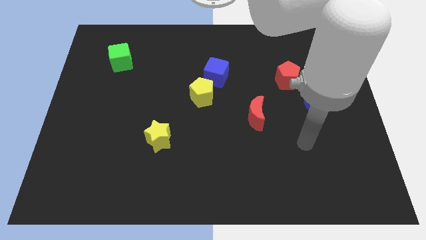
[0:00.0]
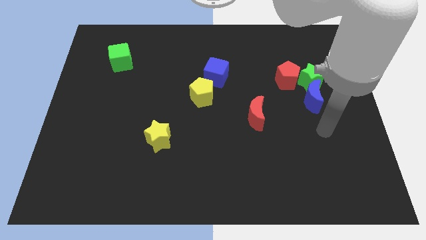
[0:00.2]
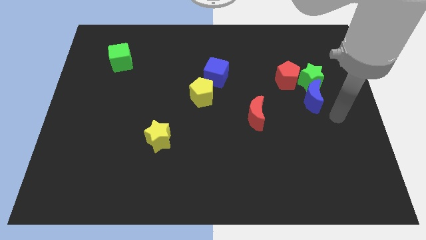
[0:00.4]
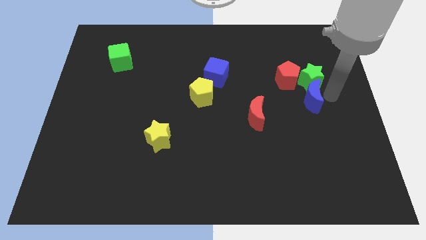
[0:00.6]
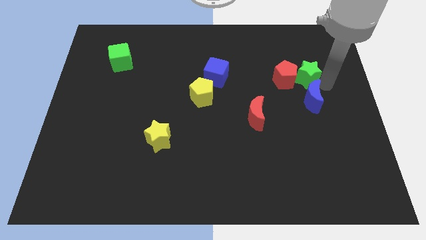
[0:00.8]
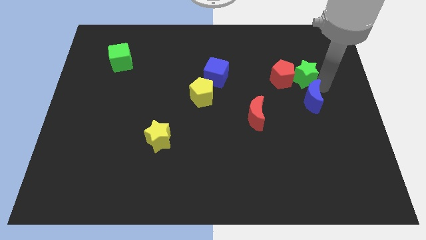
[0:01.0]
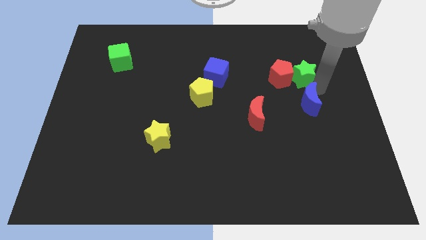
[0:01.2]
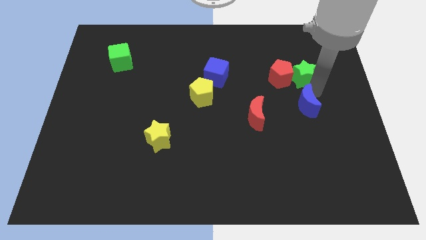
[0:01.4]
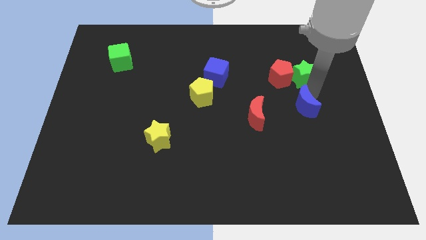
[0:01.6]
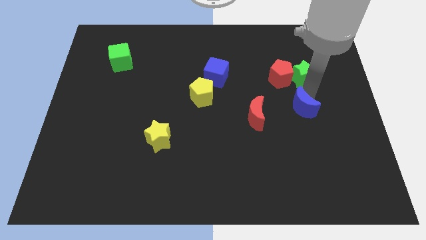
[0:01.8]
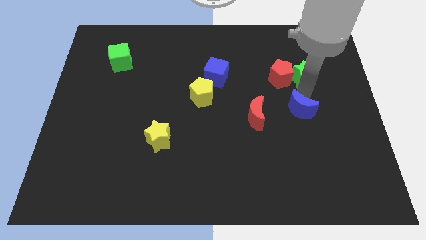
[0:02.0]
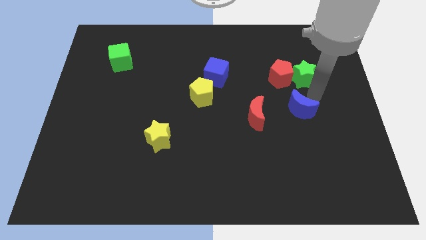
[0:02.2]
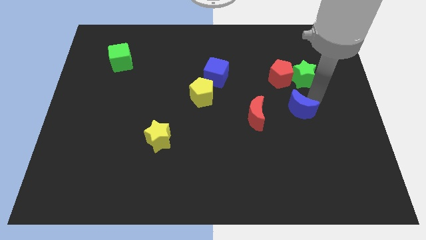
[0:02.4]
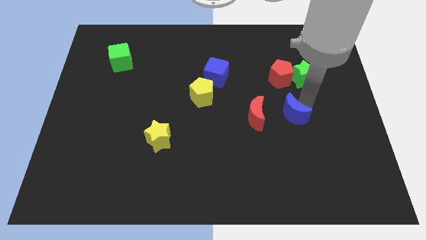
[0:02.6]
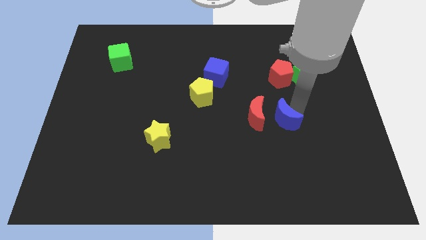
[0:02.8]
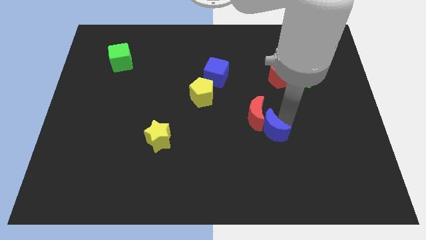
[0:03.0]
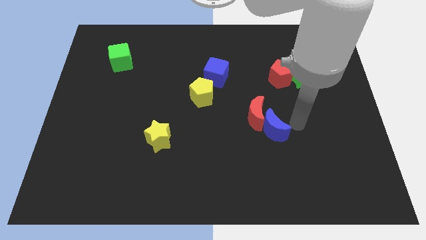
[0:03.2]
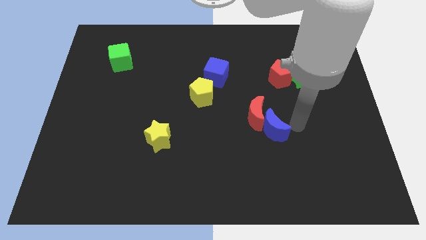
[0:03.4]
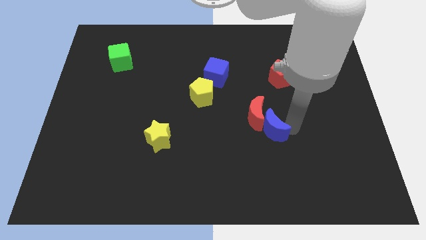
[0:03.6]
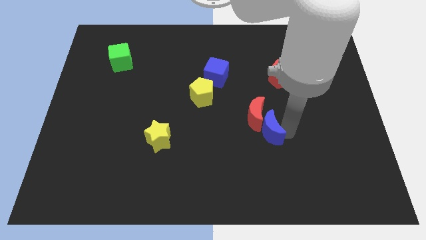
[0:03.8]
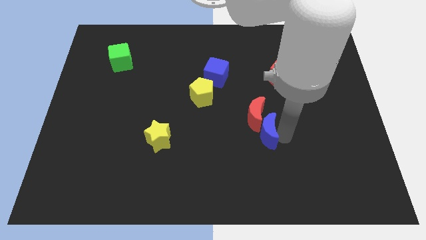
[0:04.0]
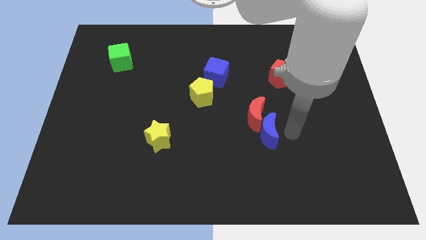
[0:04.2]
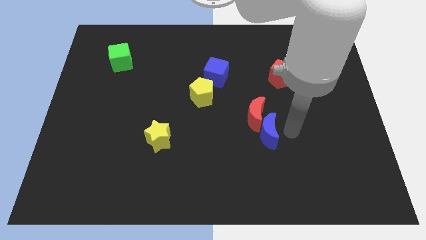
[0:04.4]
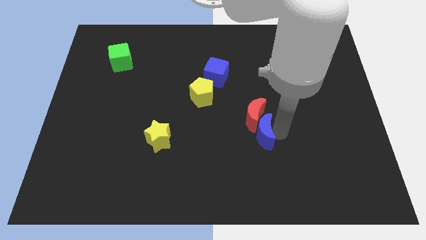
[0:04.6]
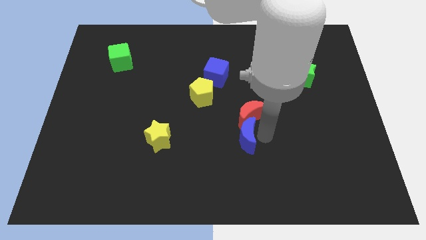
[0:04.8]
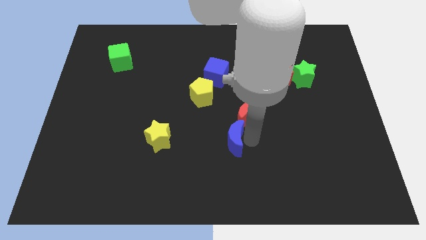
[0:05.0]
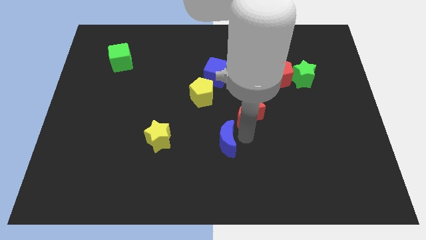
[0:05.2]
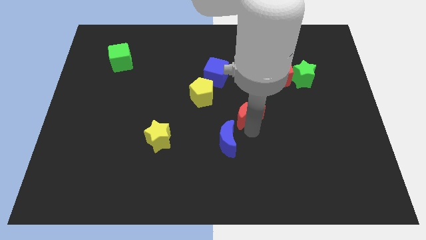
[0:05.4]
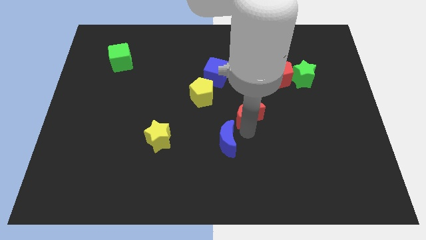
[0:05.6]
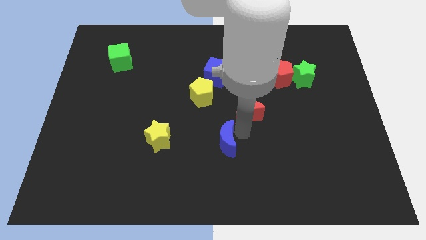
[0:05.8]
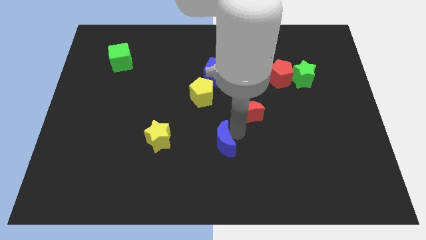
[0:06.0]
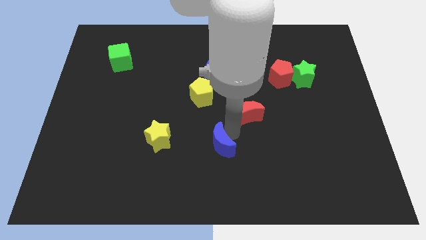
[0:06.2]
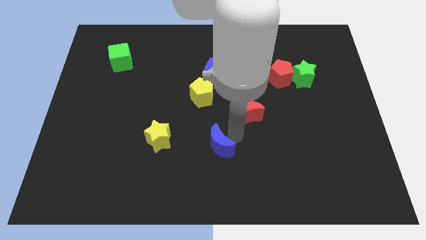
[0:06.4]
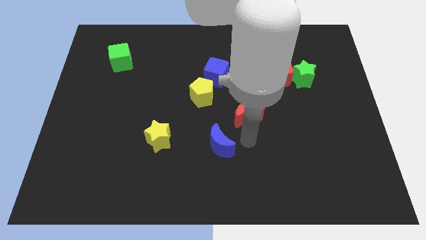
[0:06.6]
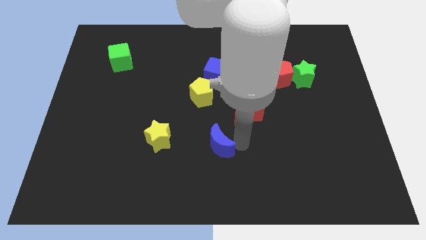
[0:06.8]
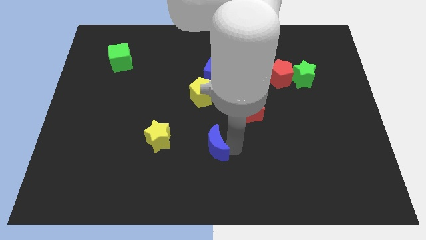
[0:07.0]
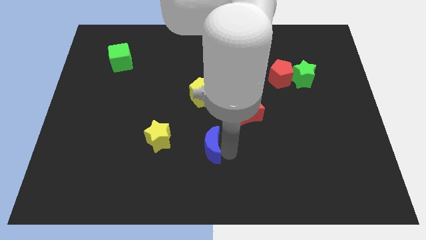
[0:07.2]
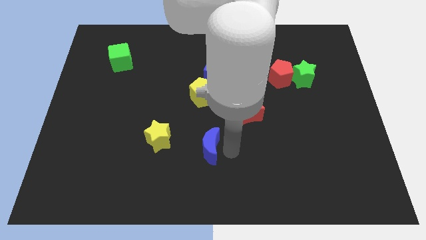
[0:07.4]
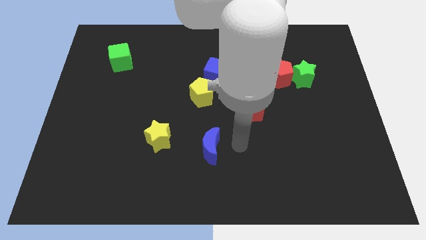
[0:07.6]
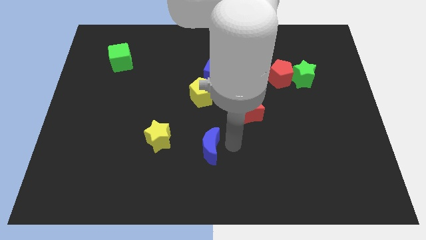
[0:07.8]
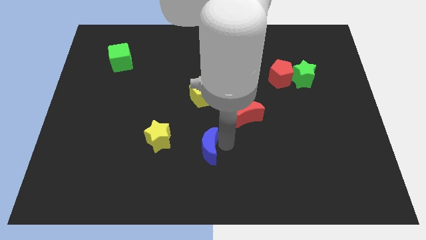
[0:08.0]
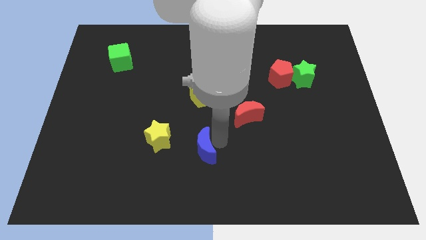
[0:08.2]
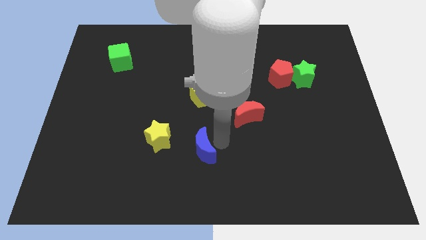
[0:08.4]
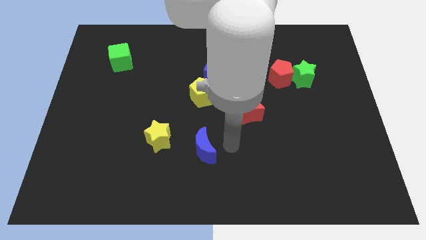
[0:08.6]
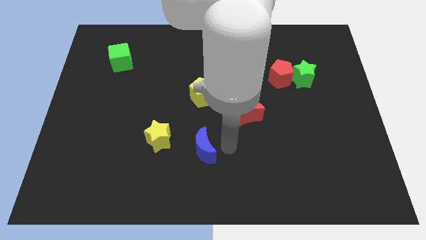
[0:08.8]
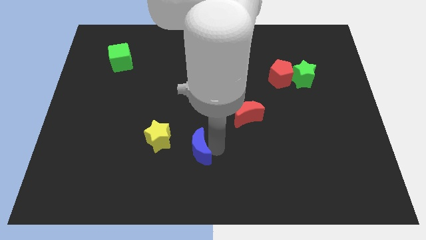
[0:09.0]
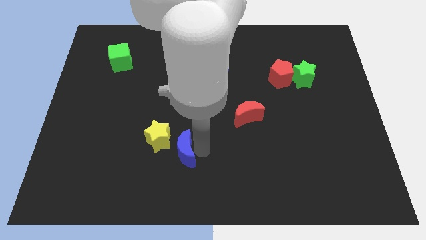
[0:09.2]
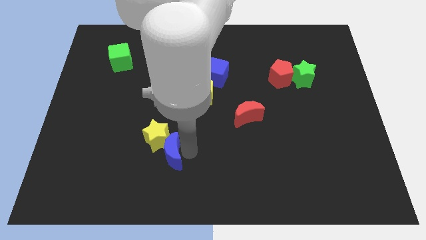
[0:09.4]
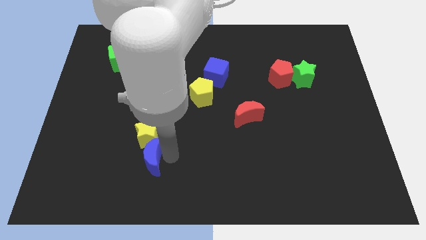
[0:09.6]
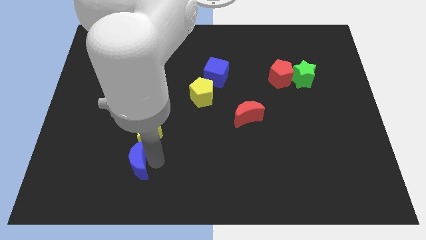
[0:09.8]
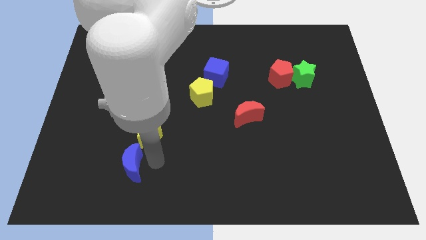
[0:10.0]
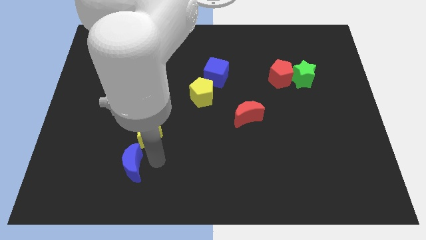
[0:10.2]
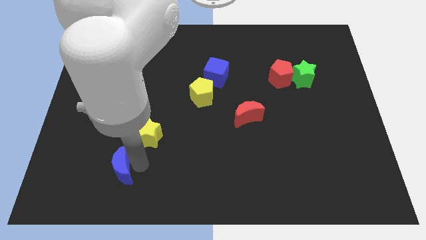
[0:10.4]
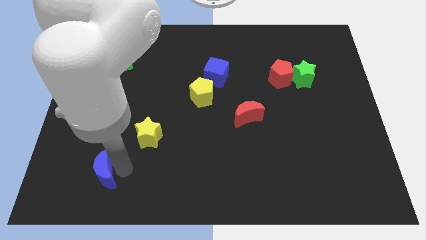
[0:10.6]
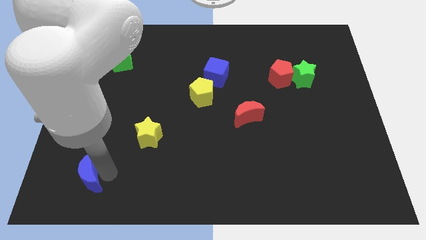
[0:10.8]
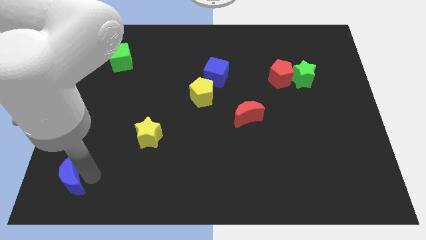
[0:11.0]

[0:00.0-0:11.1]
push the blue moon to the bottom left of the board
